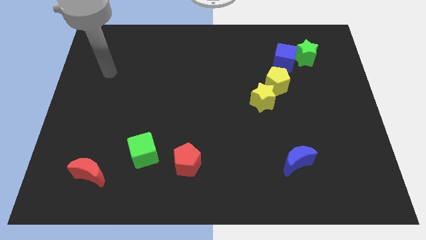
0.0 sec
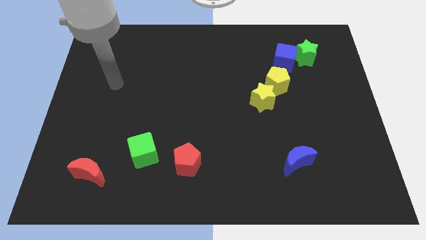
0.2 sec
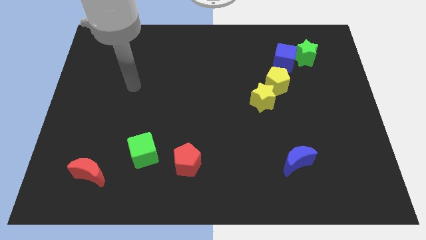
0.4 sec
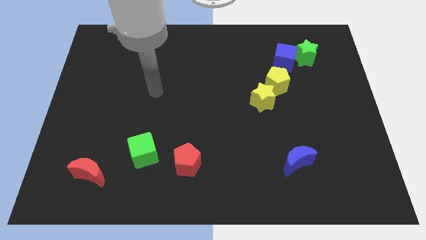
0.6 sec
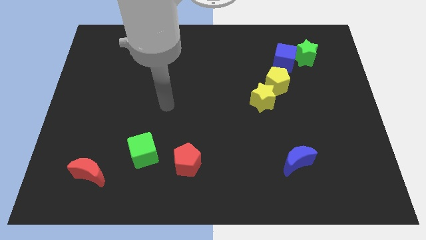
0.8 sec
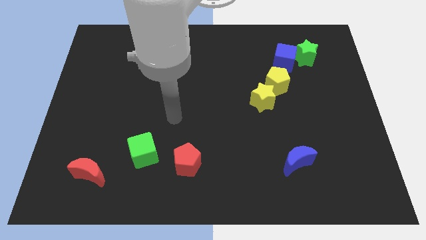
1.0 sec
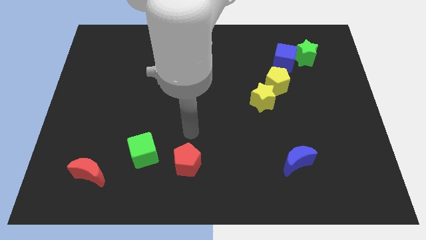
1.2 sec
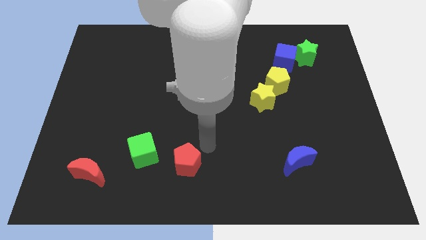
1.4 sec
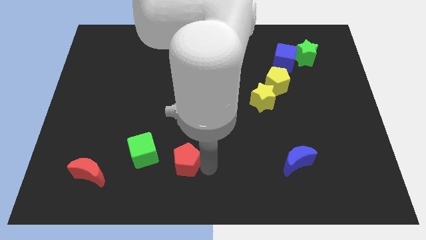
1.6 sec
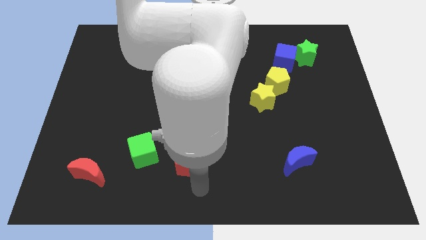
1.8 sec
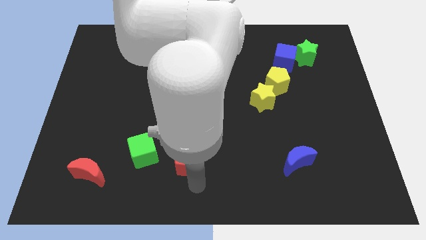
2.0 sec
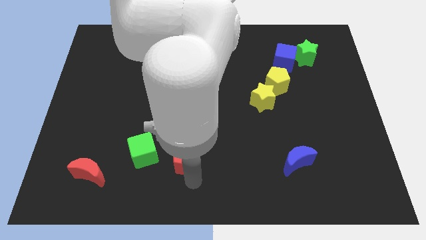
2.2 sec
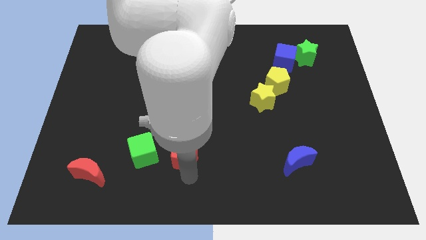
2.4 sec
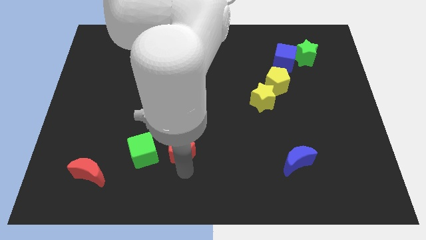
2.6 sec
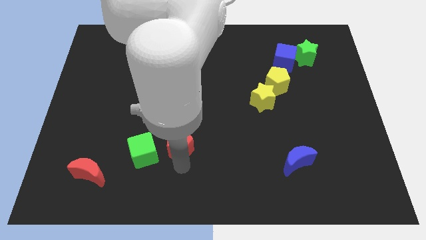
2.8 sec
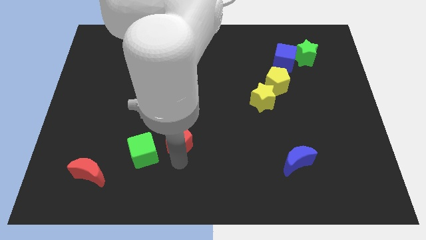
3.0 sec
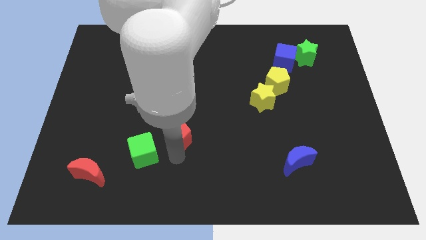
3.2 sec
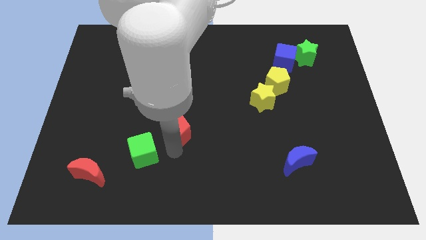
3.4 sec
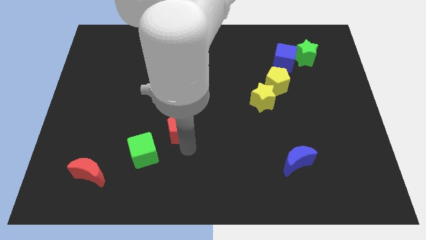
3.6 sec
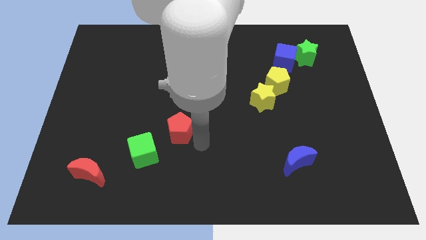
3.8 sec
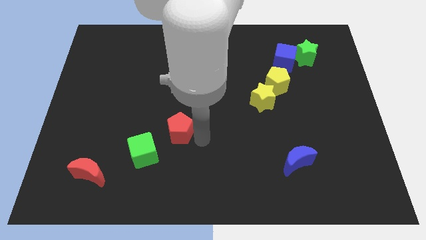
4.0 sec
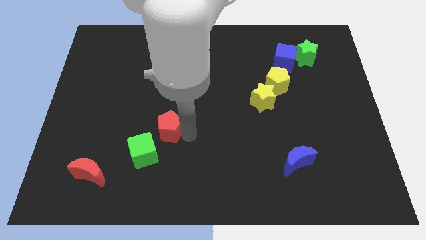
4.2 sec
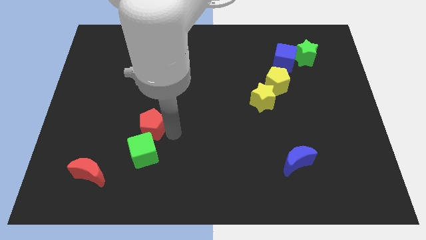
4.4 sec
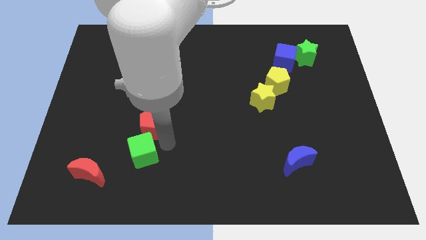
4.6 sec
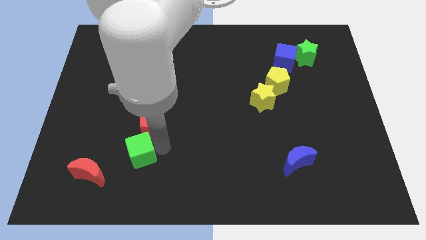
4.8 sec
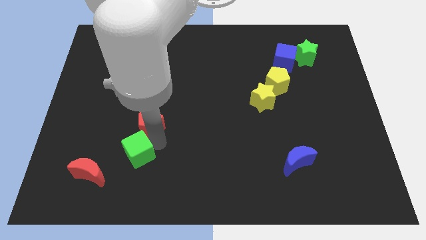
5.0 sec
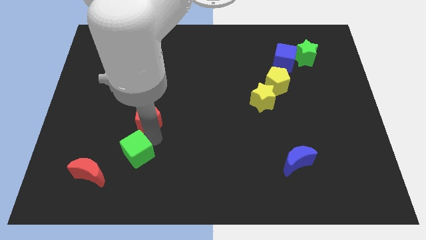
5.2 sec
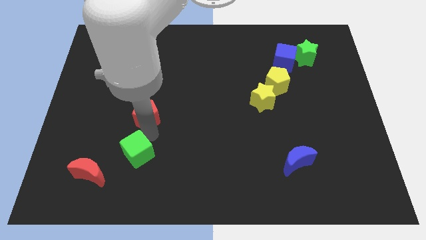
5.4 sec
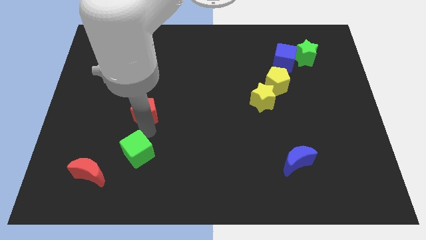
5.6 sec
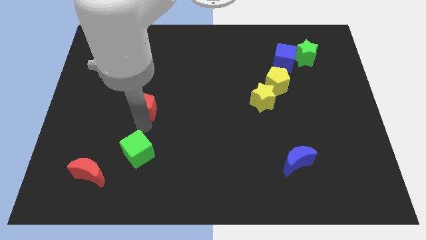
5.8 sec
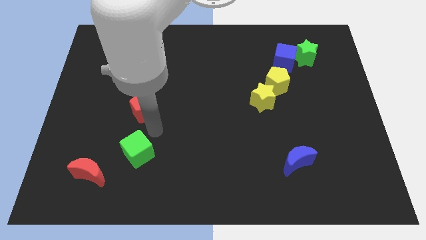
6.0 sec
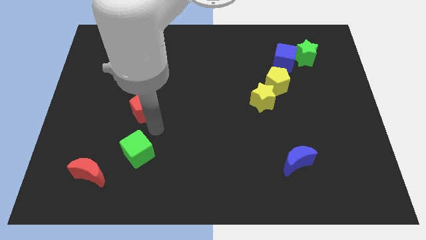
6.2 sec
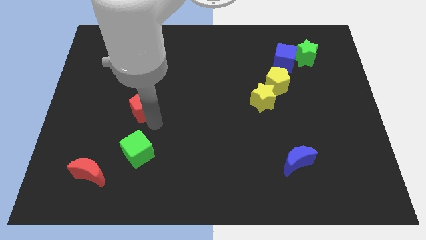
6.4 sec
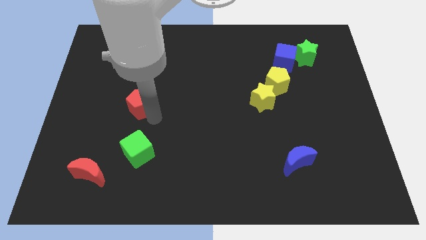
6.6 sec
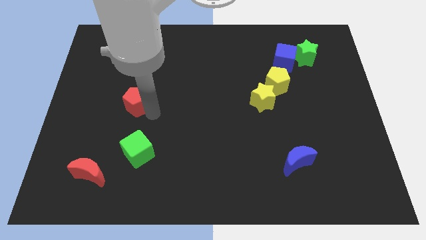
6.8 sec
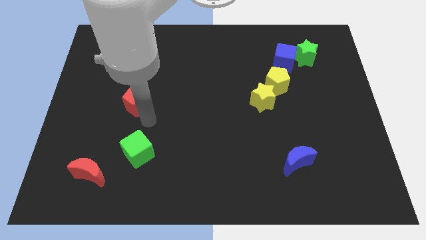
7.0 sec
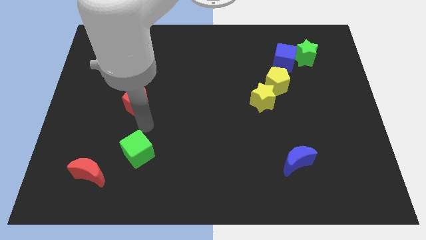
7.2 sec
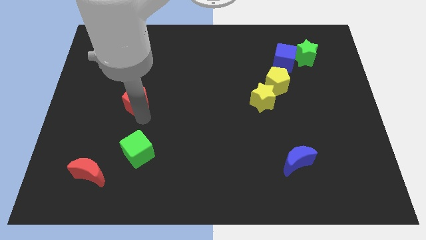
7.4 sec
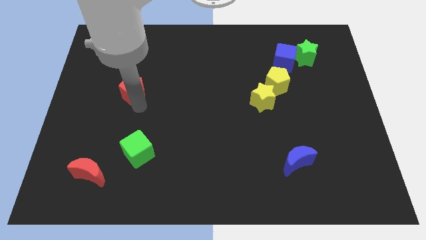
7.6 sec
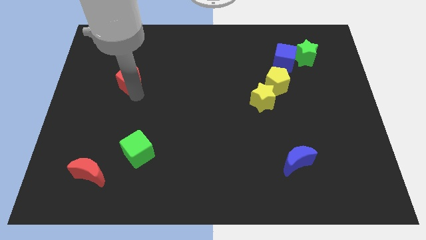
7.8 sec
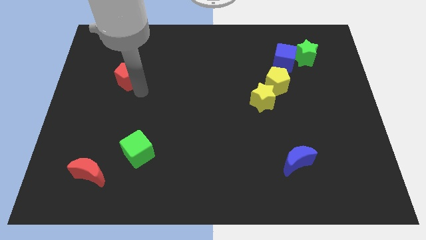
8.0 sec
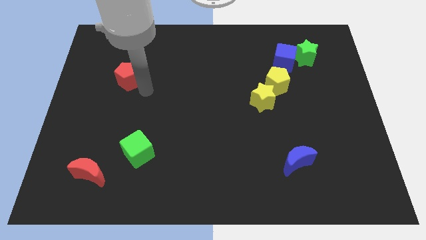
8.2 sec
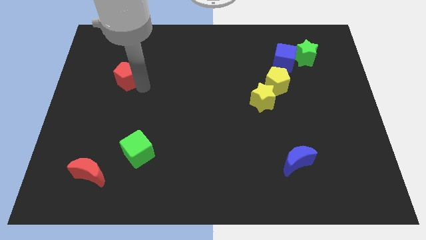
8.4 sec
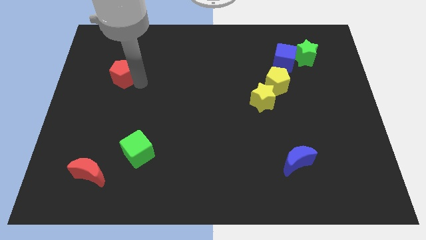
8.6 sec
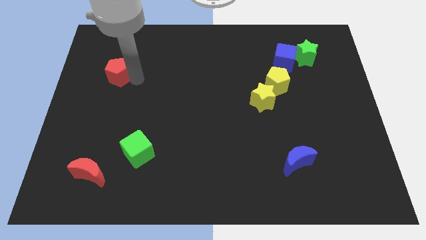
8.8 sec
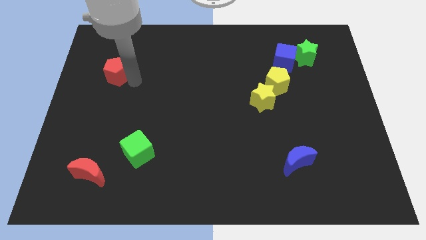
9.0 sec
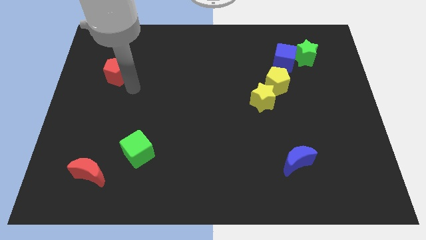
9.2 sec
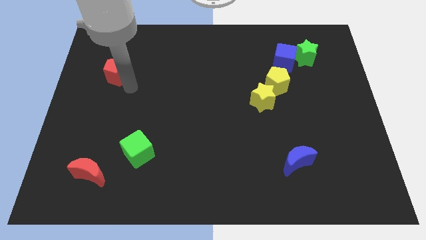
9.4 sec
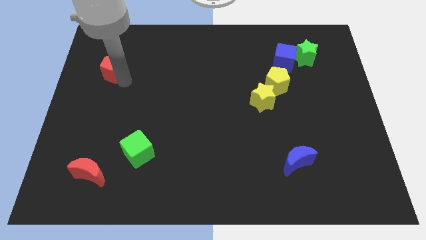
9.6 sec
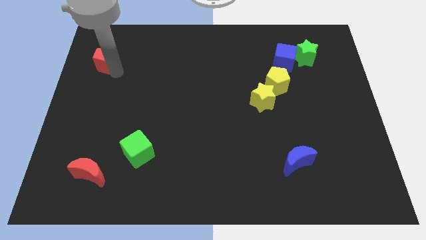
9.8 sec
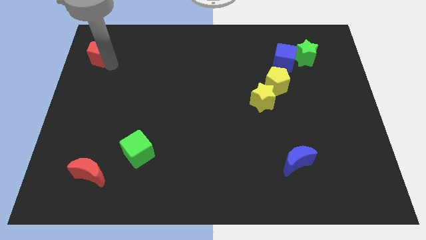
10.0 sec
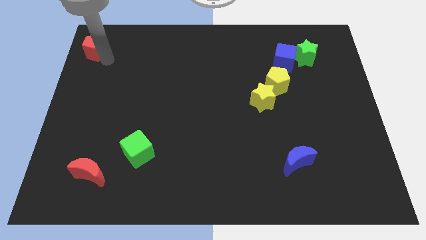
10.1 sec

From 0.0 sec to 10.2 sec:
slide the red pentagon to the upper left corner

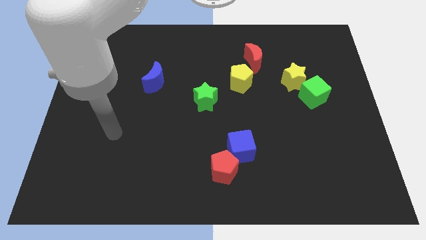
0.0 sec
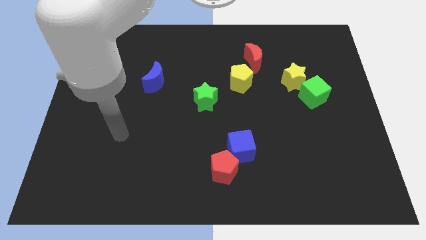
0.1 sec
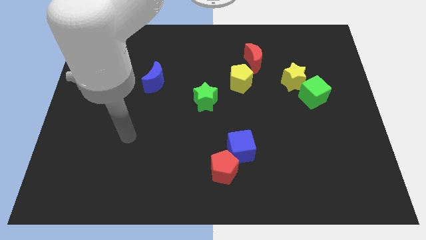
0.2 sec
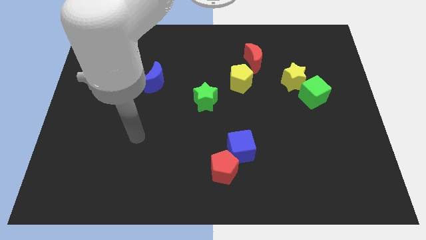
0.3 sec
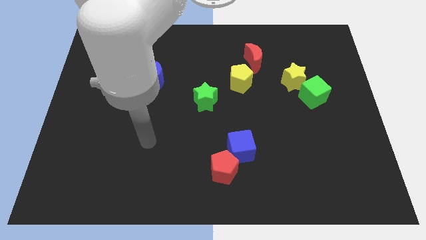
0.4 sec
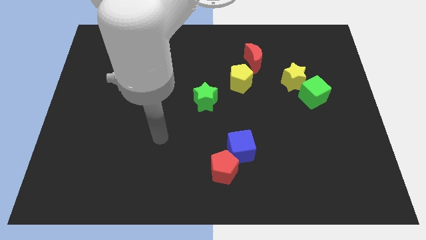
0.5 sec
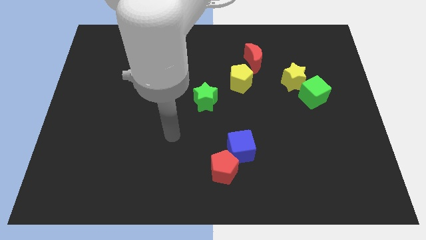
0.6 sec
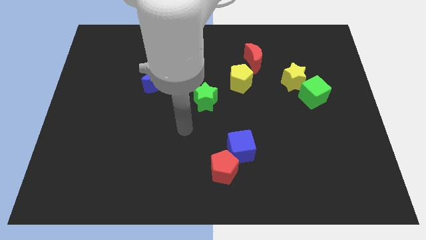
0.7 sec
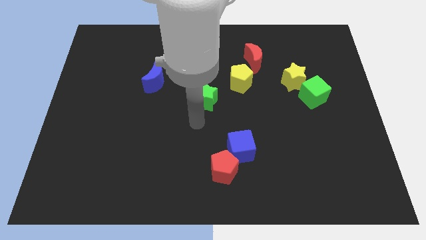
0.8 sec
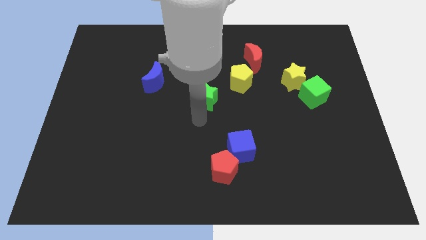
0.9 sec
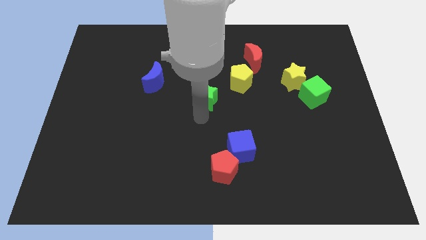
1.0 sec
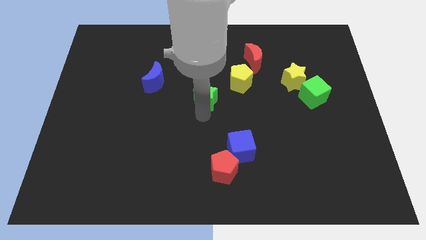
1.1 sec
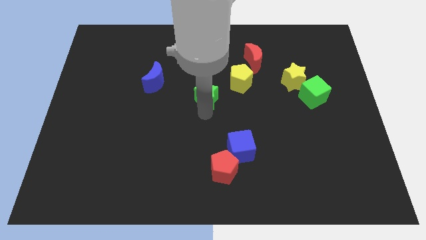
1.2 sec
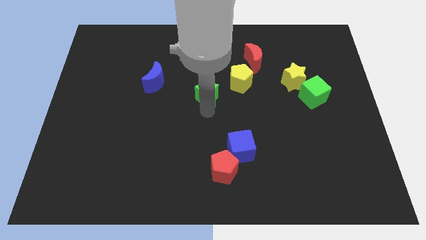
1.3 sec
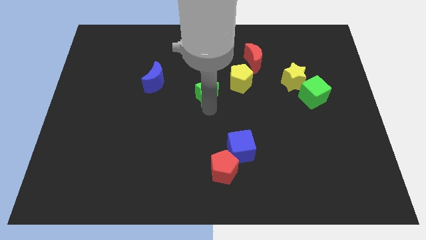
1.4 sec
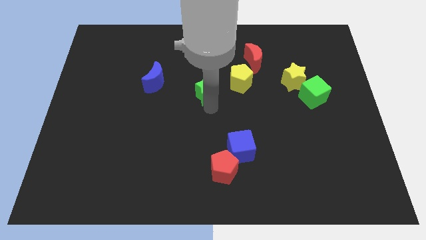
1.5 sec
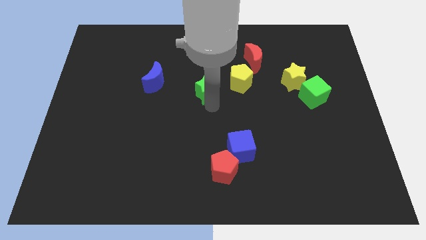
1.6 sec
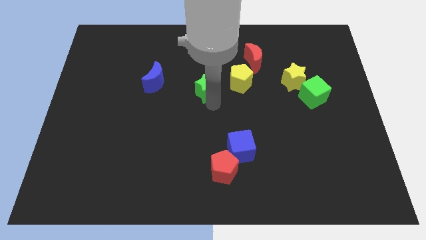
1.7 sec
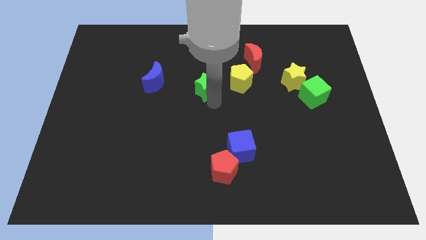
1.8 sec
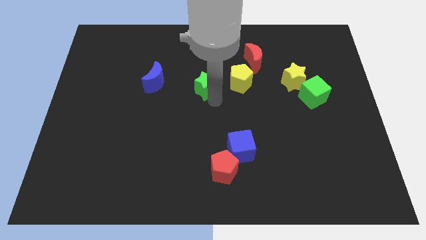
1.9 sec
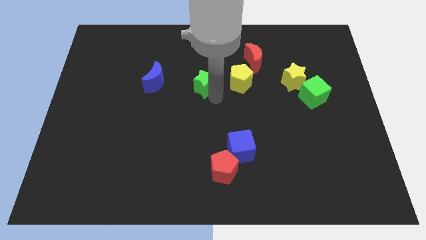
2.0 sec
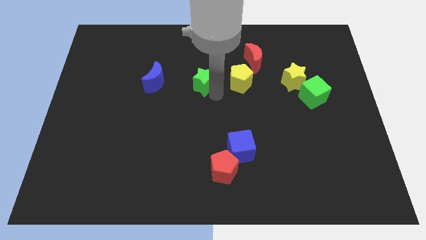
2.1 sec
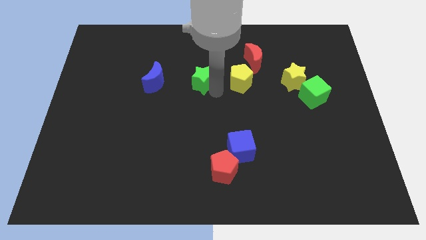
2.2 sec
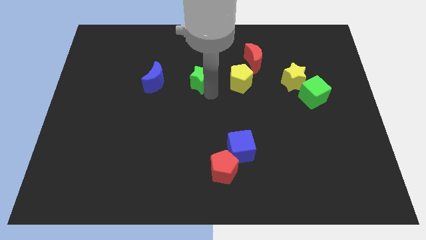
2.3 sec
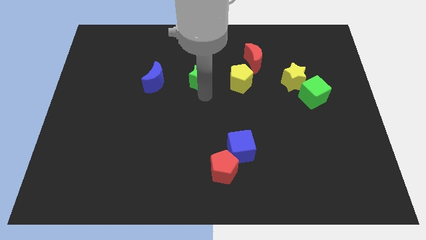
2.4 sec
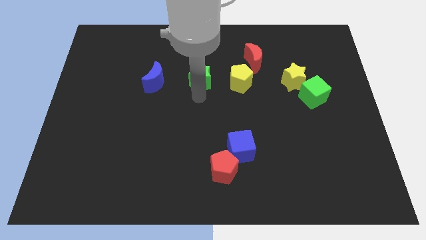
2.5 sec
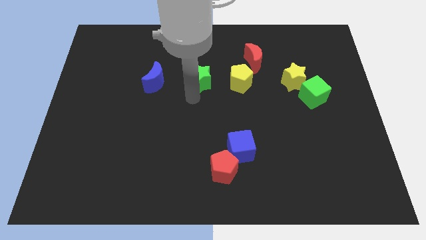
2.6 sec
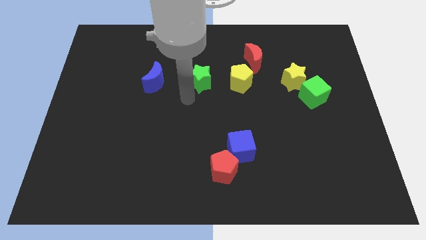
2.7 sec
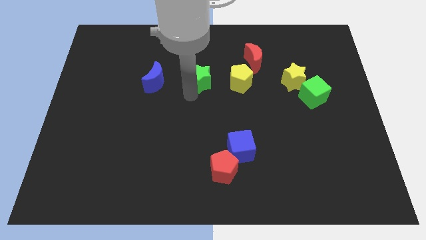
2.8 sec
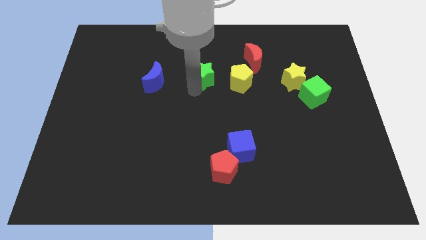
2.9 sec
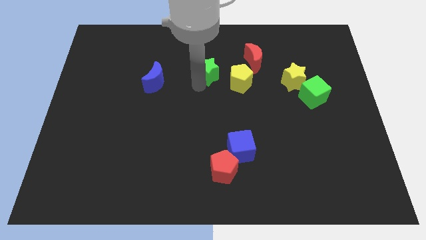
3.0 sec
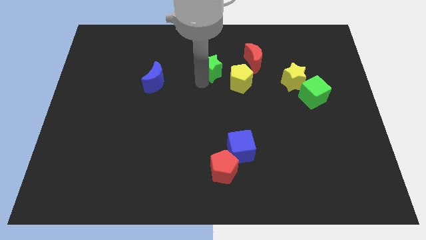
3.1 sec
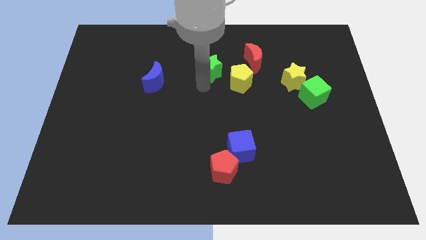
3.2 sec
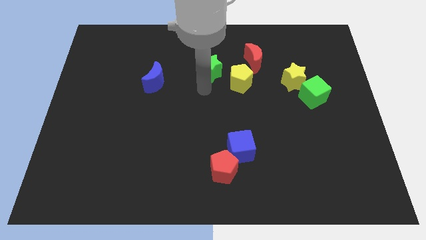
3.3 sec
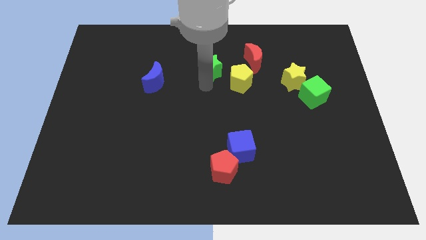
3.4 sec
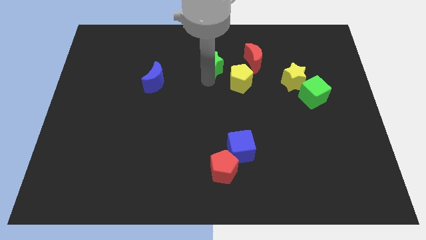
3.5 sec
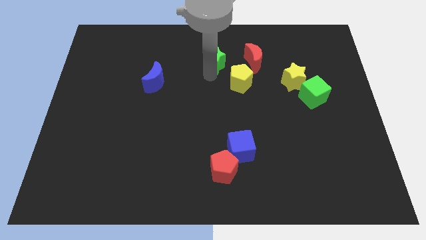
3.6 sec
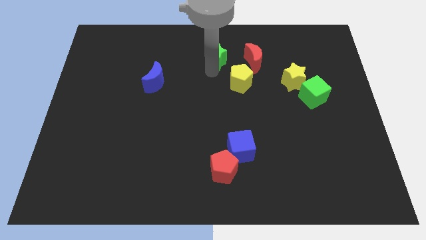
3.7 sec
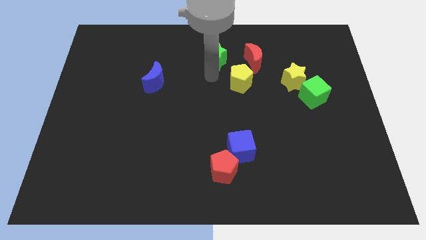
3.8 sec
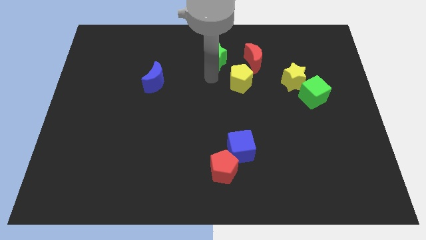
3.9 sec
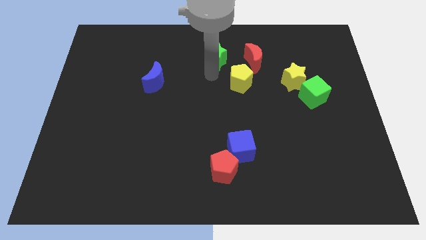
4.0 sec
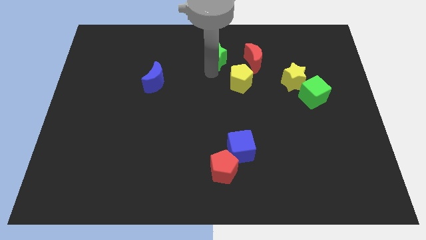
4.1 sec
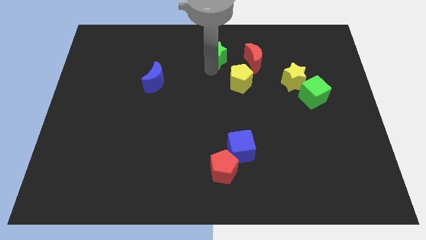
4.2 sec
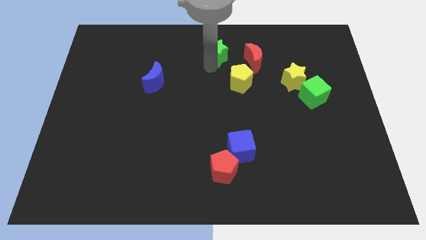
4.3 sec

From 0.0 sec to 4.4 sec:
put the green star to the top
